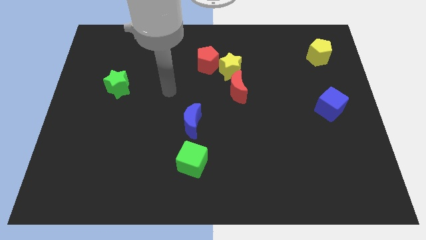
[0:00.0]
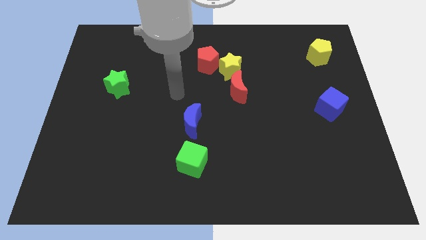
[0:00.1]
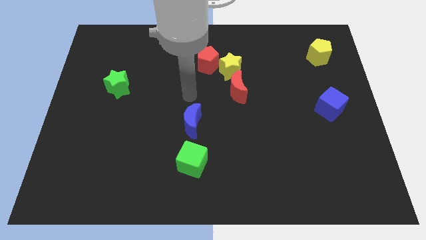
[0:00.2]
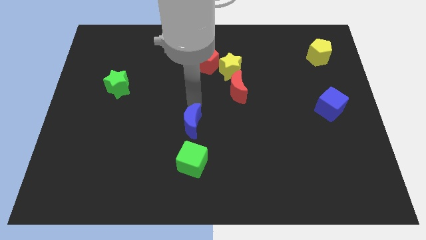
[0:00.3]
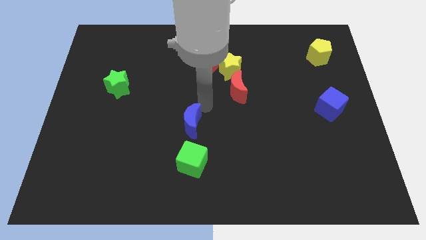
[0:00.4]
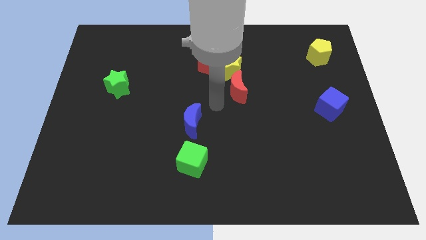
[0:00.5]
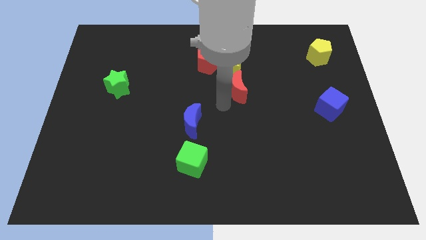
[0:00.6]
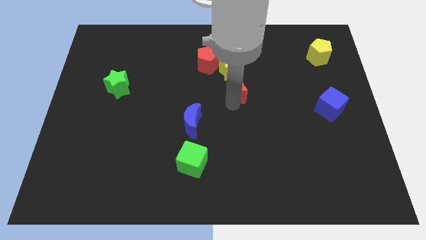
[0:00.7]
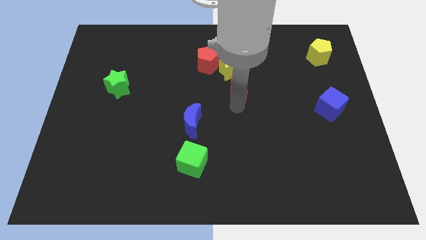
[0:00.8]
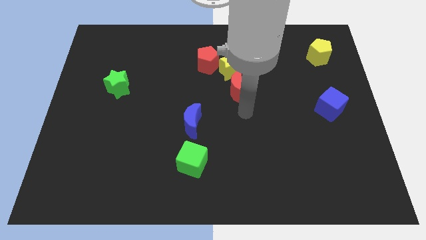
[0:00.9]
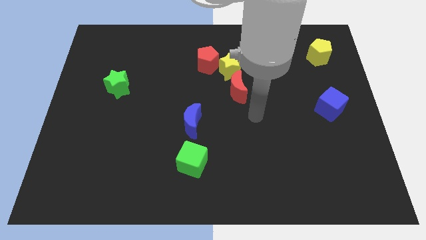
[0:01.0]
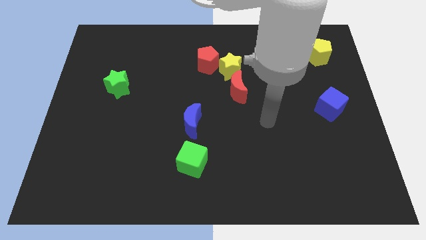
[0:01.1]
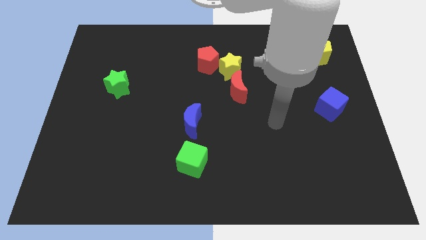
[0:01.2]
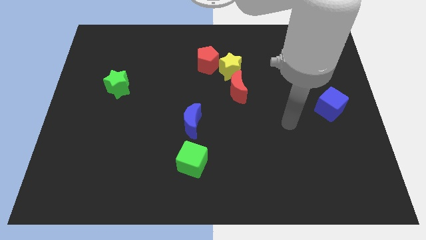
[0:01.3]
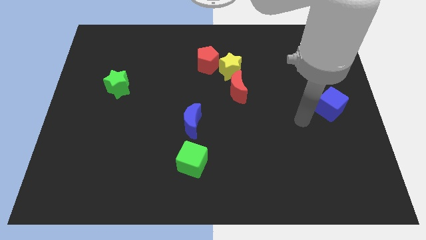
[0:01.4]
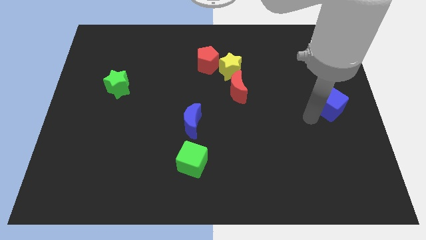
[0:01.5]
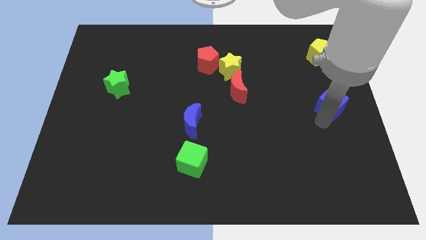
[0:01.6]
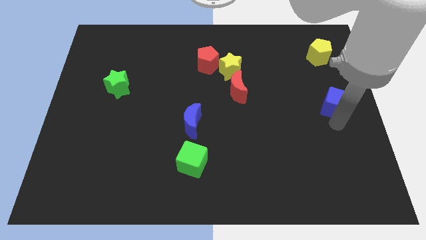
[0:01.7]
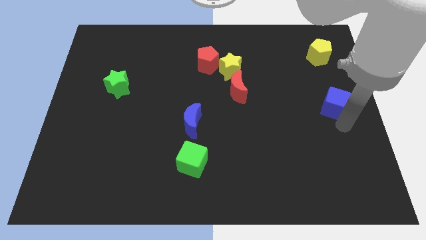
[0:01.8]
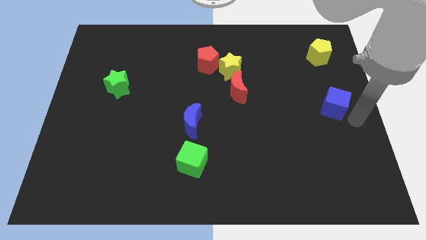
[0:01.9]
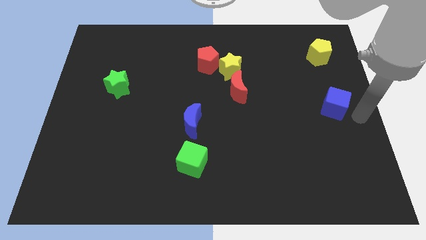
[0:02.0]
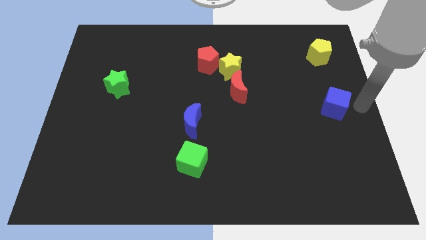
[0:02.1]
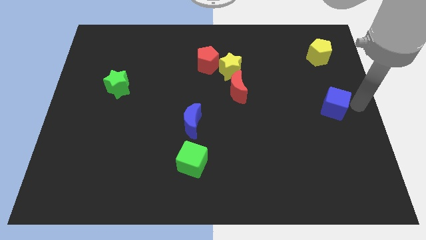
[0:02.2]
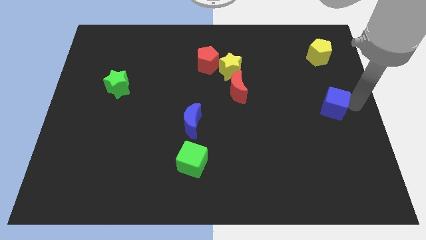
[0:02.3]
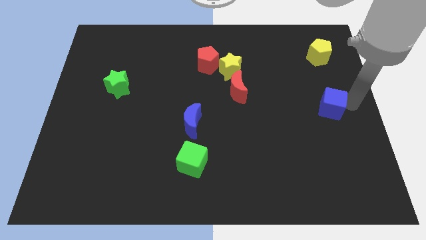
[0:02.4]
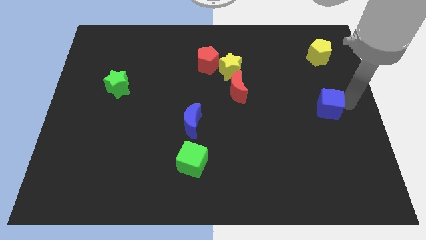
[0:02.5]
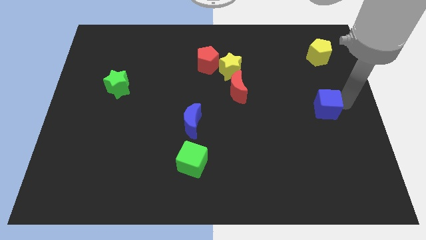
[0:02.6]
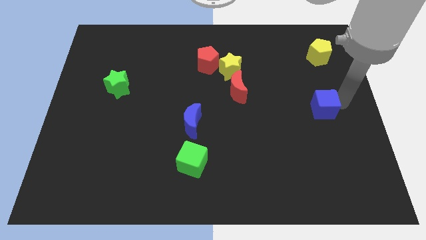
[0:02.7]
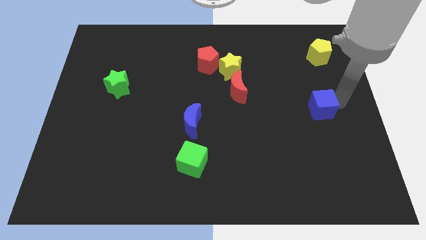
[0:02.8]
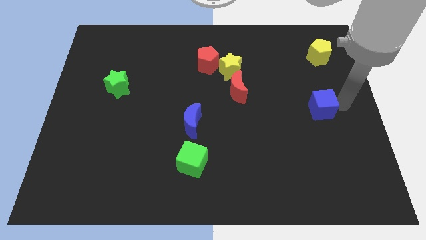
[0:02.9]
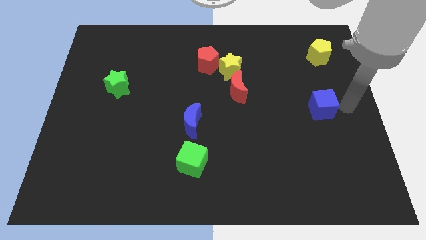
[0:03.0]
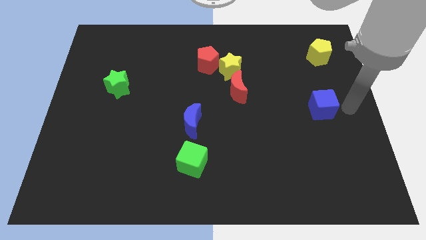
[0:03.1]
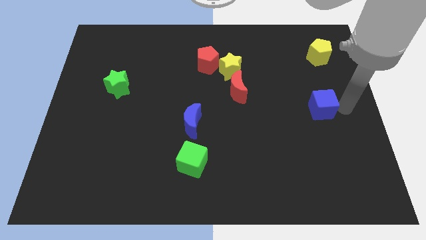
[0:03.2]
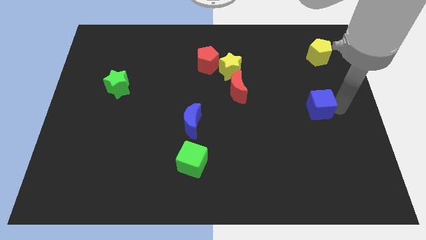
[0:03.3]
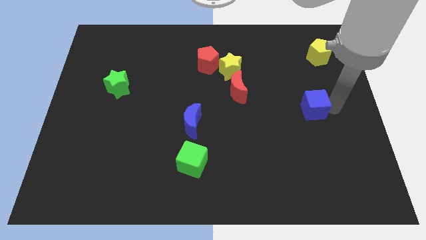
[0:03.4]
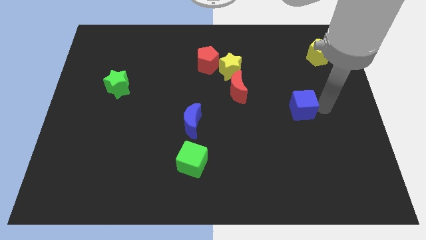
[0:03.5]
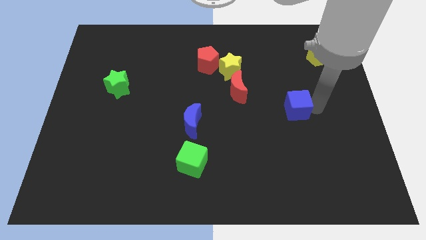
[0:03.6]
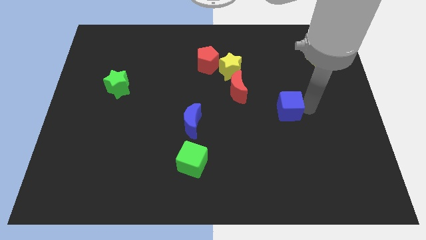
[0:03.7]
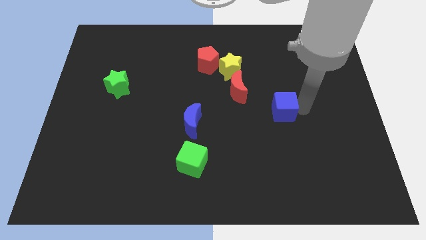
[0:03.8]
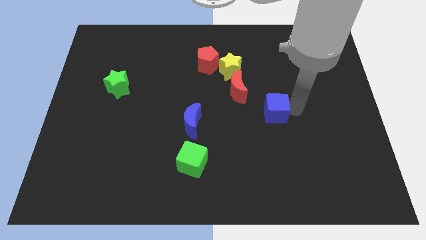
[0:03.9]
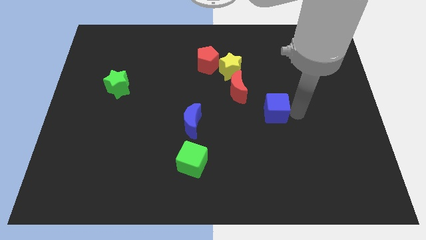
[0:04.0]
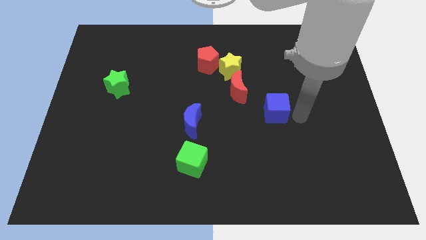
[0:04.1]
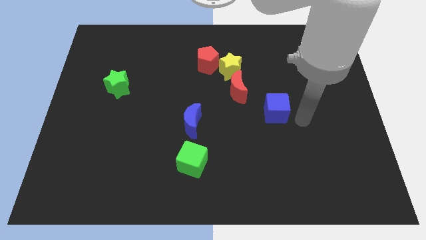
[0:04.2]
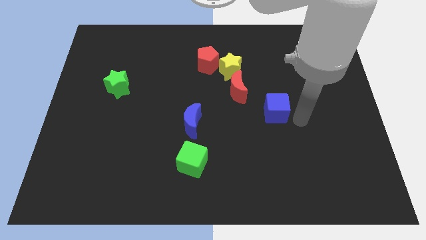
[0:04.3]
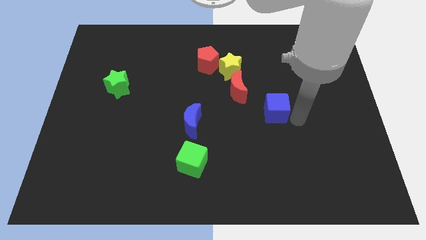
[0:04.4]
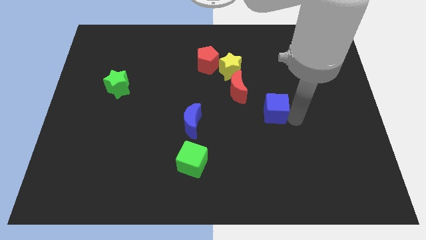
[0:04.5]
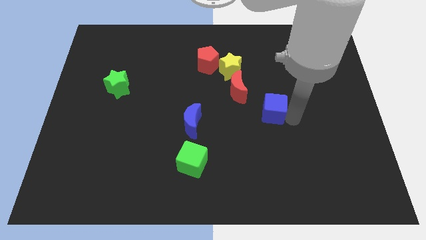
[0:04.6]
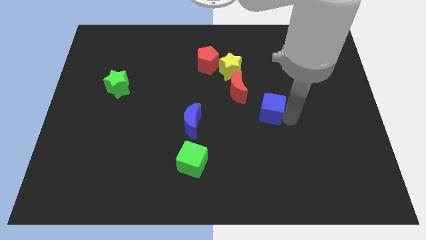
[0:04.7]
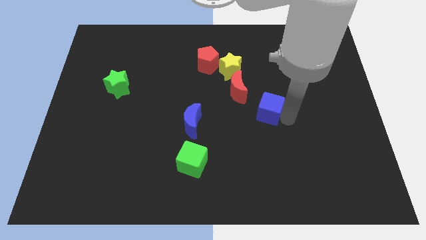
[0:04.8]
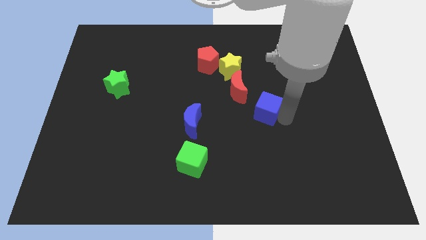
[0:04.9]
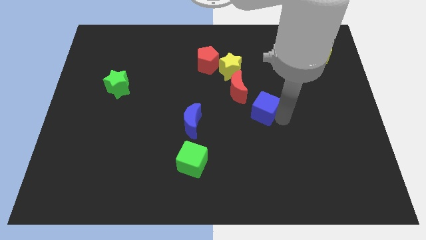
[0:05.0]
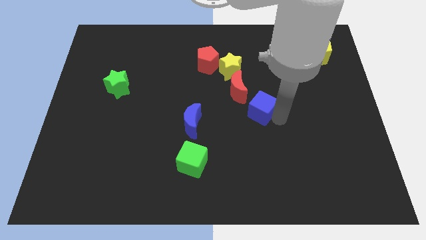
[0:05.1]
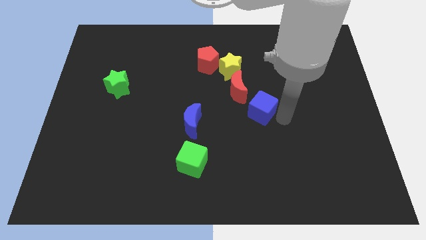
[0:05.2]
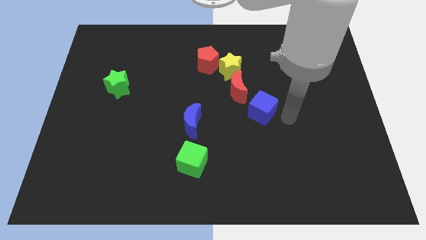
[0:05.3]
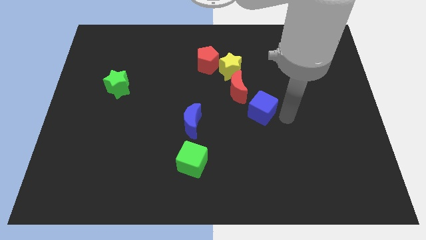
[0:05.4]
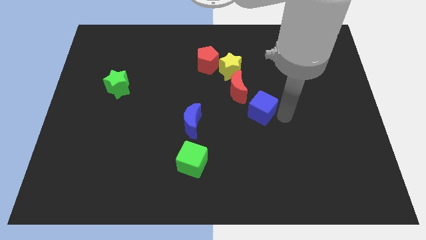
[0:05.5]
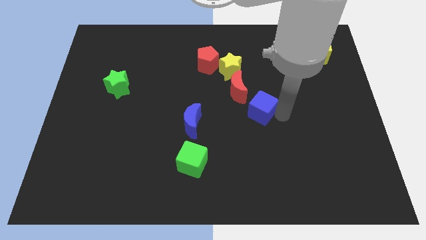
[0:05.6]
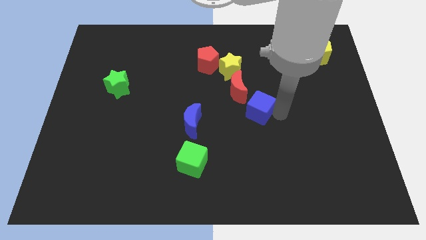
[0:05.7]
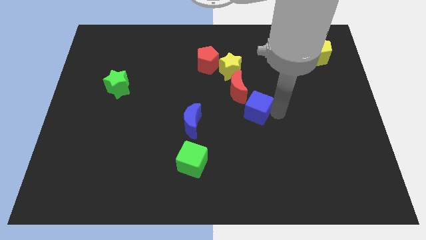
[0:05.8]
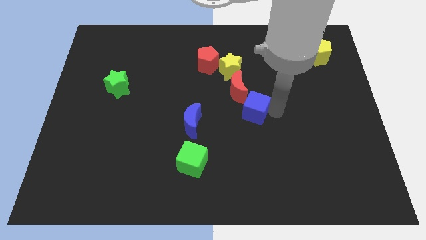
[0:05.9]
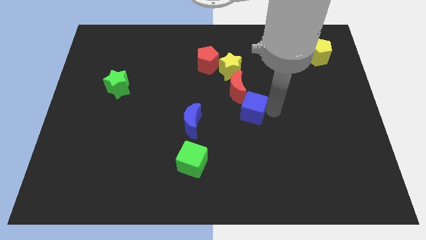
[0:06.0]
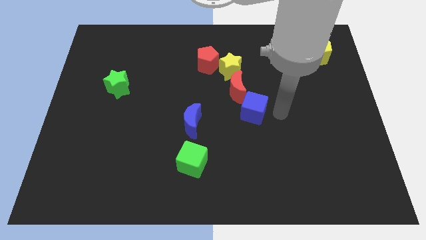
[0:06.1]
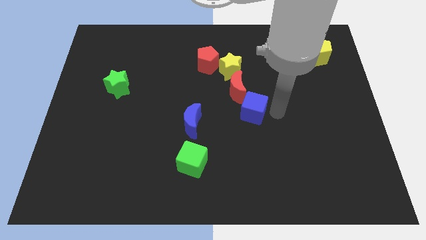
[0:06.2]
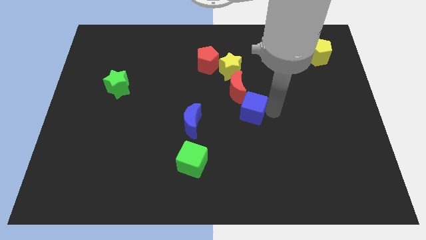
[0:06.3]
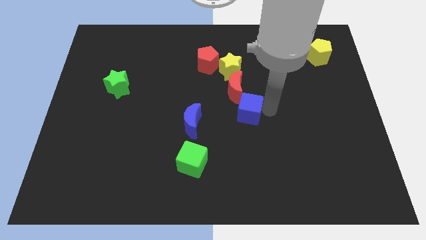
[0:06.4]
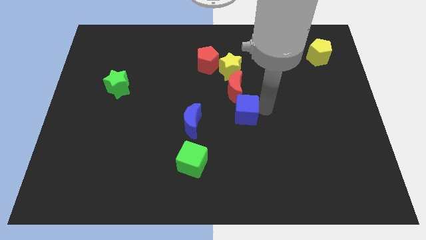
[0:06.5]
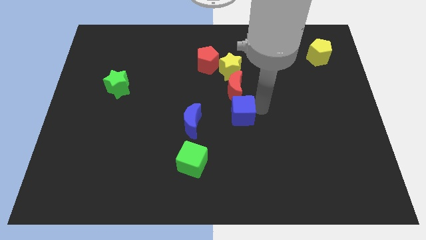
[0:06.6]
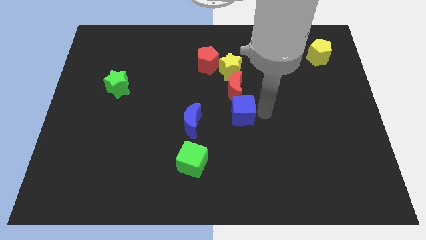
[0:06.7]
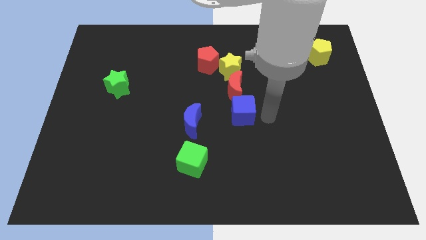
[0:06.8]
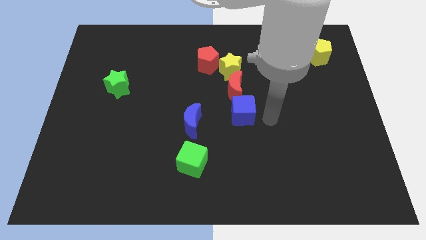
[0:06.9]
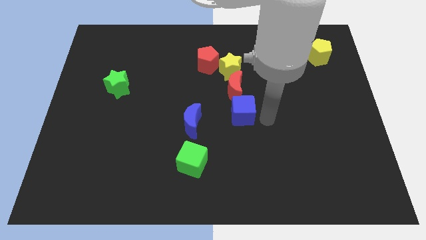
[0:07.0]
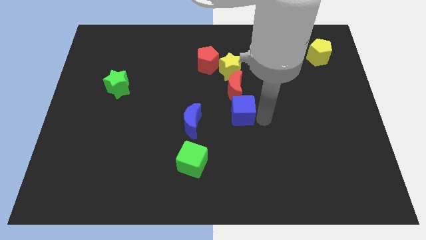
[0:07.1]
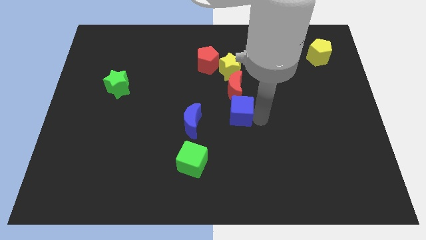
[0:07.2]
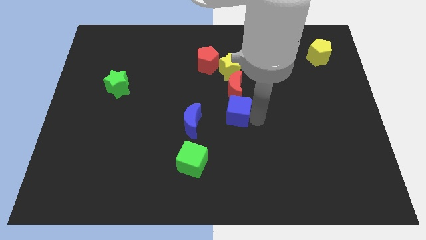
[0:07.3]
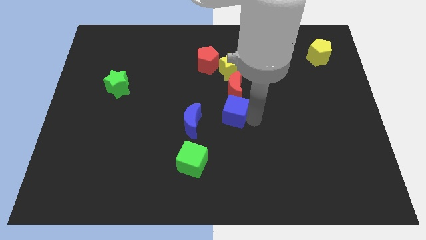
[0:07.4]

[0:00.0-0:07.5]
slide the blue cube diagonally down and to the left of the red moon

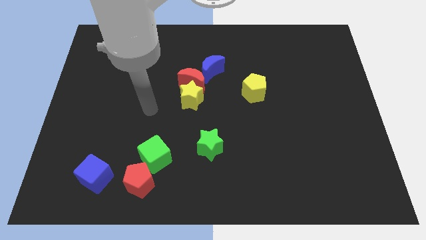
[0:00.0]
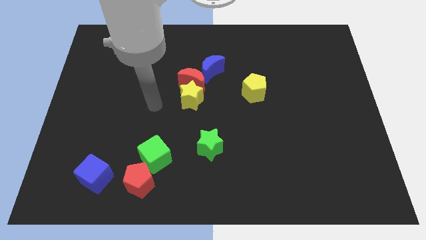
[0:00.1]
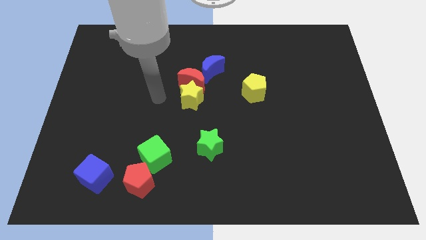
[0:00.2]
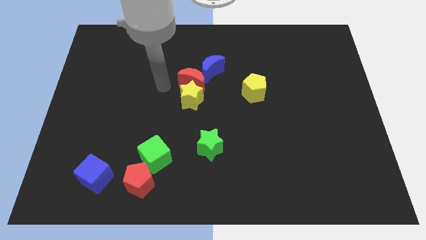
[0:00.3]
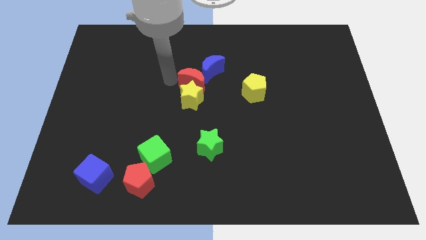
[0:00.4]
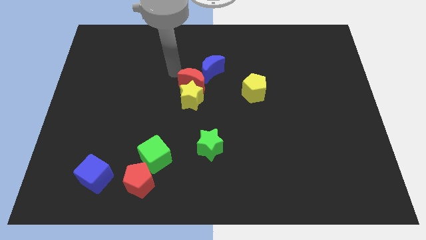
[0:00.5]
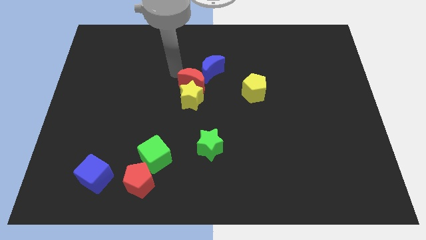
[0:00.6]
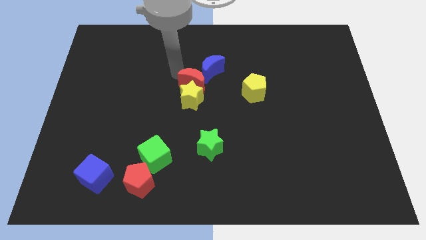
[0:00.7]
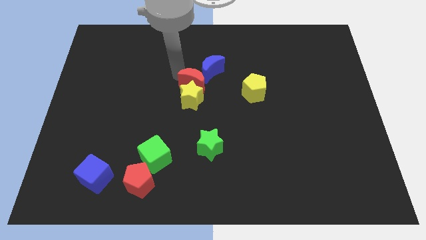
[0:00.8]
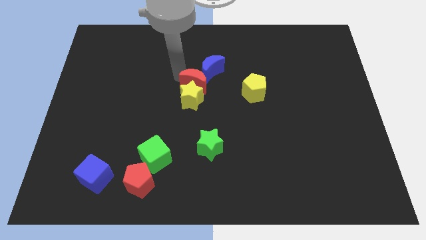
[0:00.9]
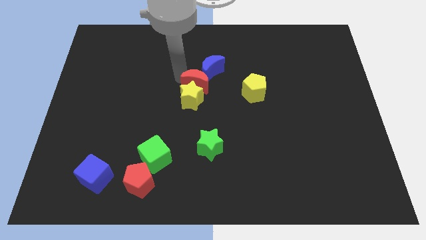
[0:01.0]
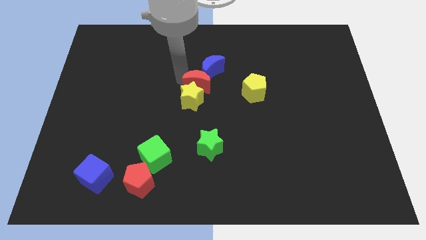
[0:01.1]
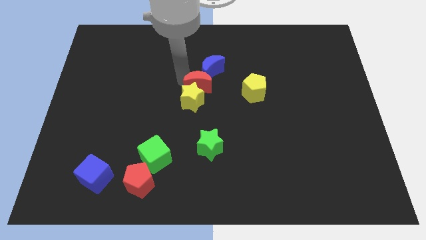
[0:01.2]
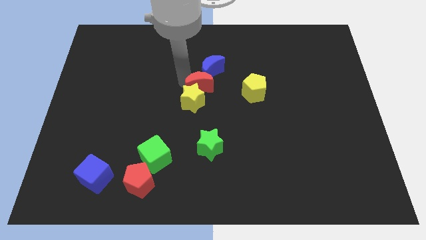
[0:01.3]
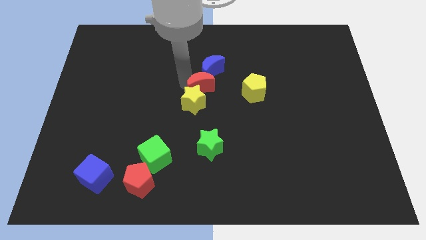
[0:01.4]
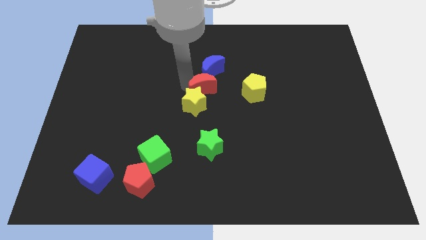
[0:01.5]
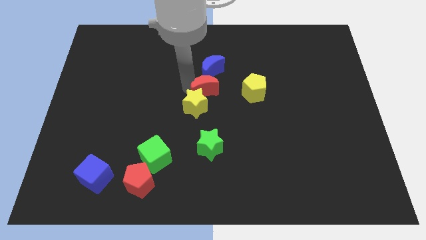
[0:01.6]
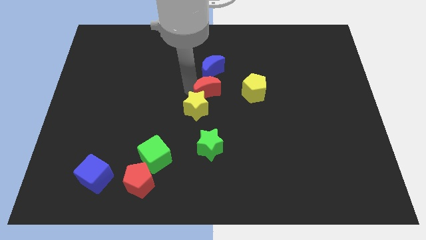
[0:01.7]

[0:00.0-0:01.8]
move the red moon to the top side of the green star
